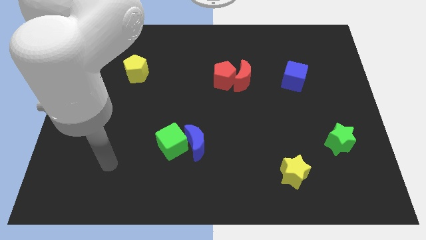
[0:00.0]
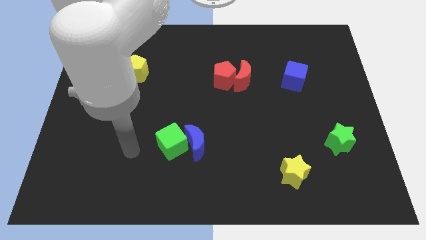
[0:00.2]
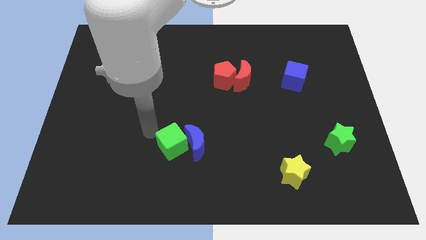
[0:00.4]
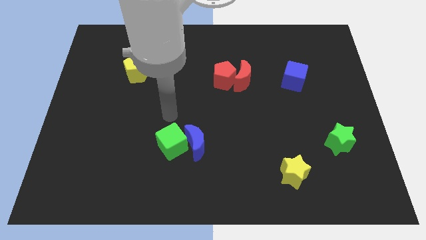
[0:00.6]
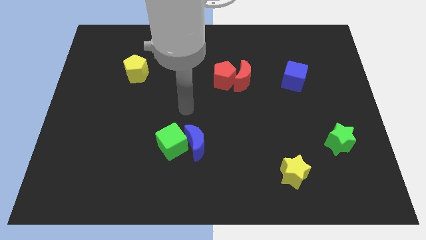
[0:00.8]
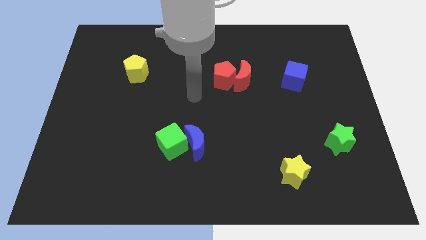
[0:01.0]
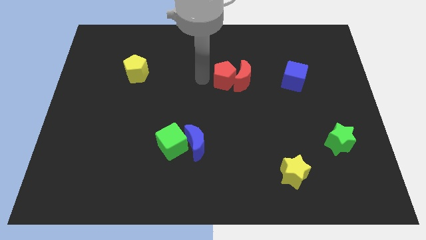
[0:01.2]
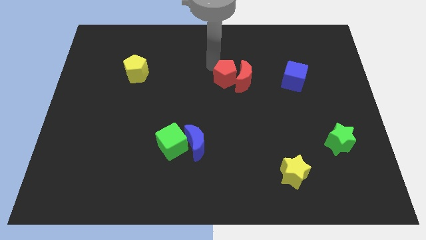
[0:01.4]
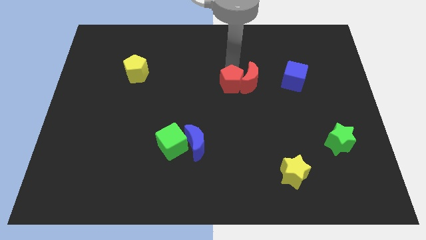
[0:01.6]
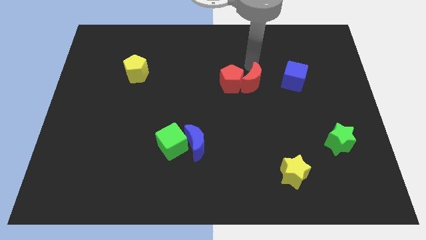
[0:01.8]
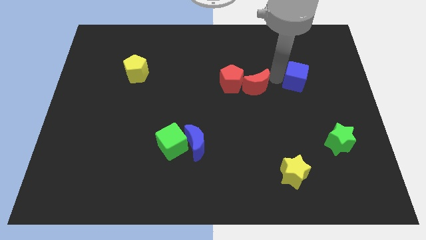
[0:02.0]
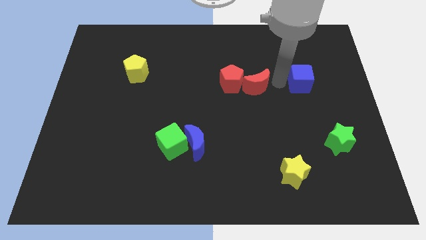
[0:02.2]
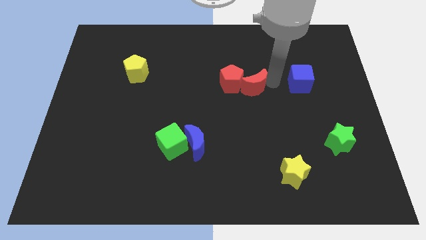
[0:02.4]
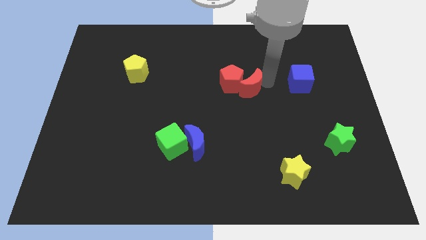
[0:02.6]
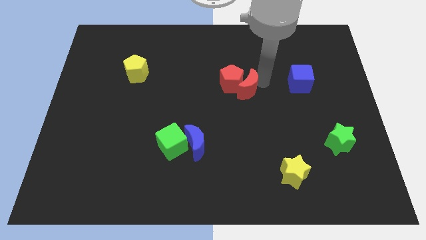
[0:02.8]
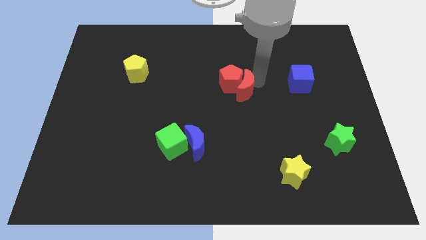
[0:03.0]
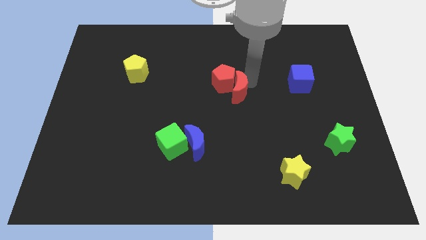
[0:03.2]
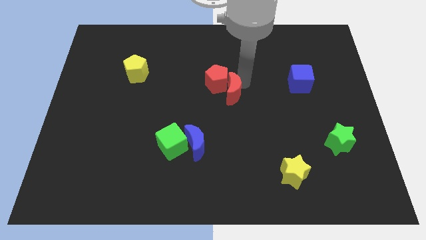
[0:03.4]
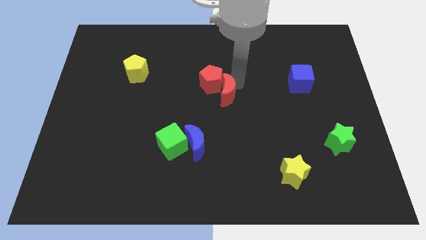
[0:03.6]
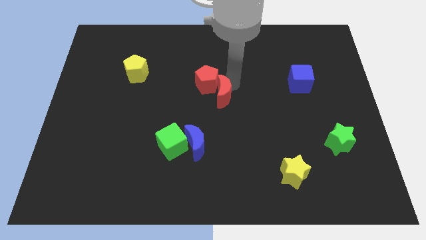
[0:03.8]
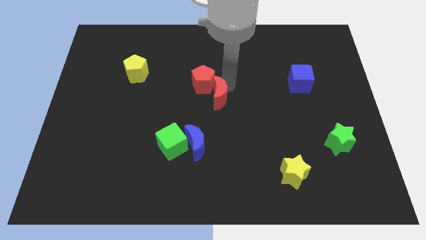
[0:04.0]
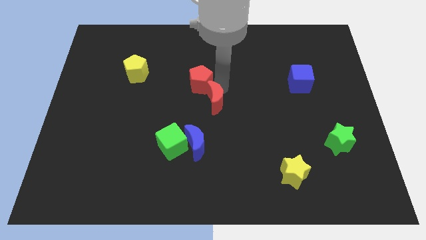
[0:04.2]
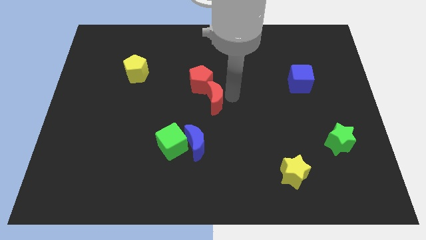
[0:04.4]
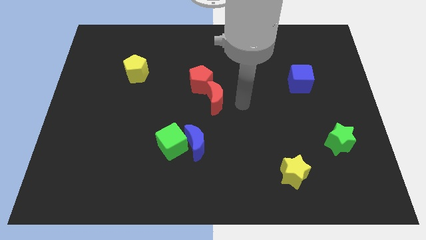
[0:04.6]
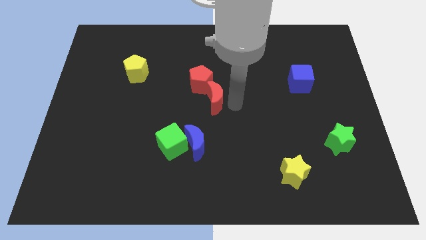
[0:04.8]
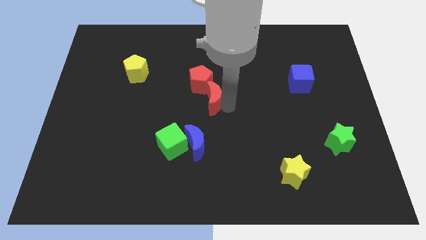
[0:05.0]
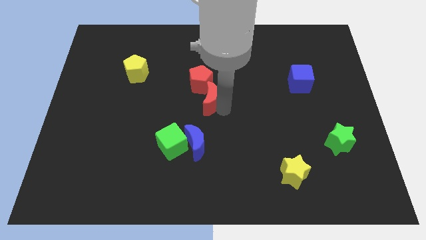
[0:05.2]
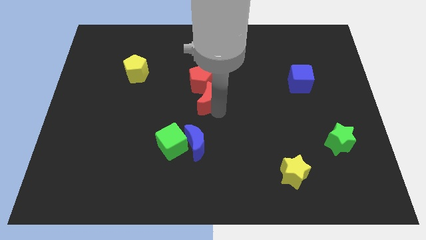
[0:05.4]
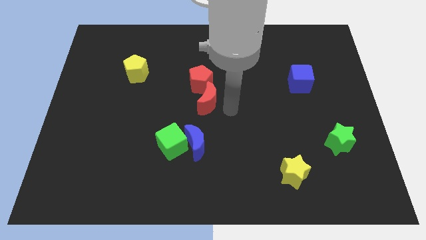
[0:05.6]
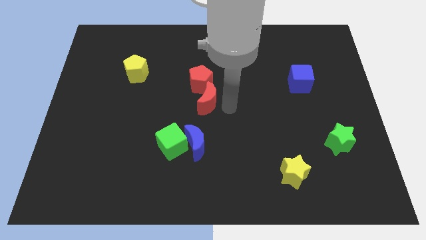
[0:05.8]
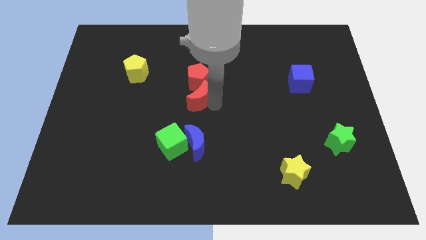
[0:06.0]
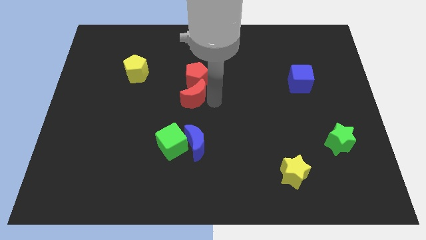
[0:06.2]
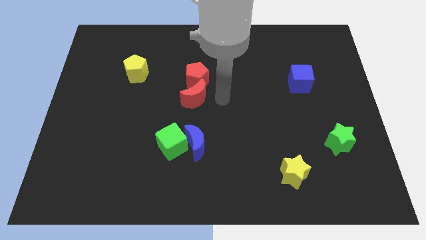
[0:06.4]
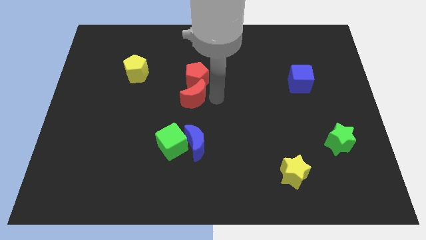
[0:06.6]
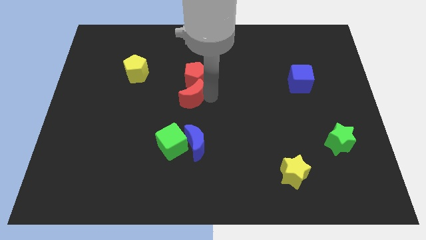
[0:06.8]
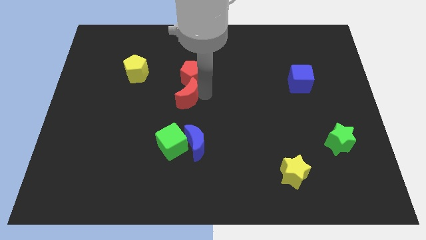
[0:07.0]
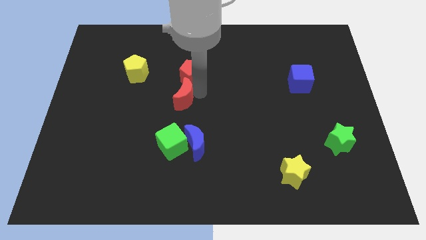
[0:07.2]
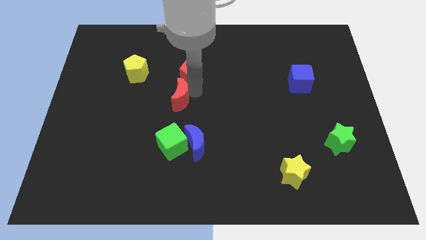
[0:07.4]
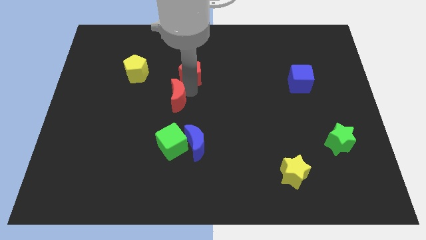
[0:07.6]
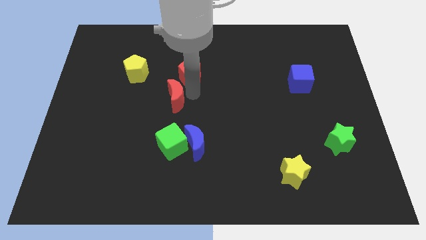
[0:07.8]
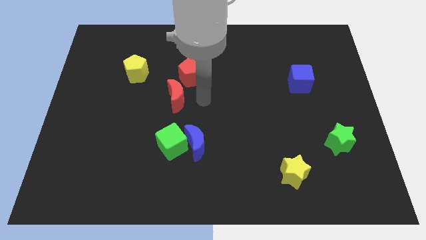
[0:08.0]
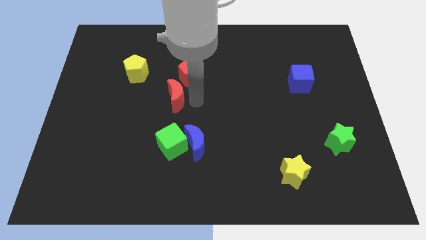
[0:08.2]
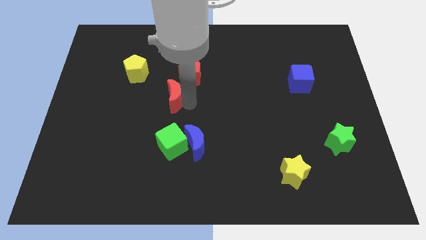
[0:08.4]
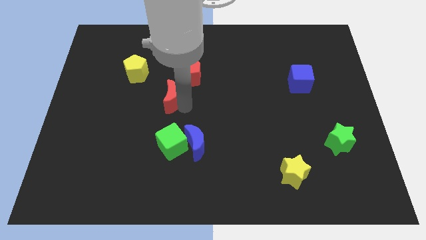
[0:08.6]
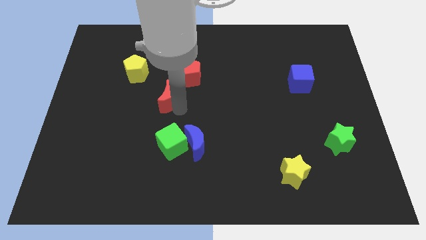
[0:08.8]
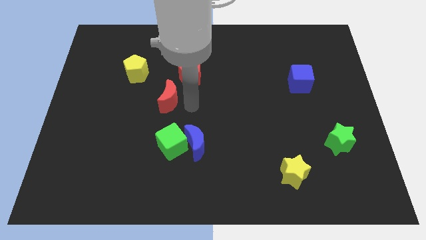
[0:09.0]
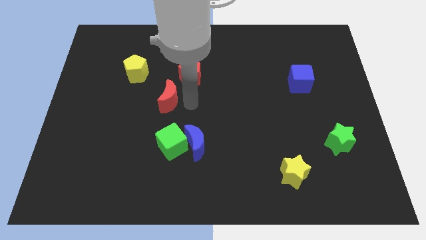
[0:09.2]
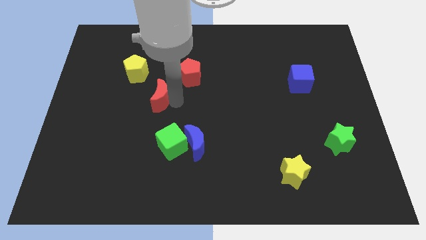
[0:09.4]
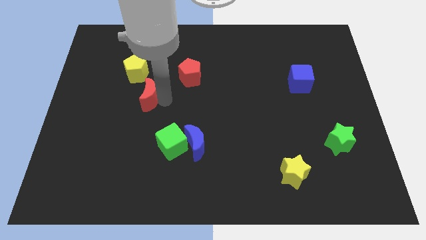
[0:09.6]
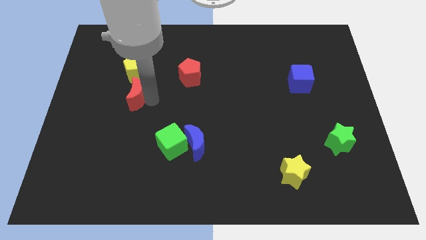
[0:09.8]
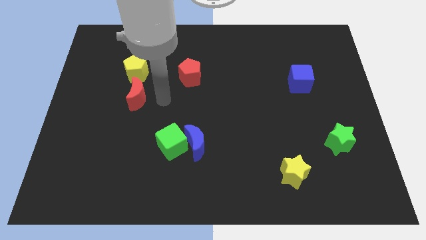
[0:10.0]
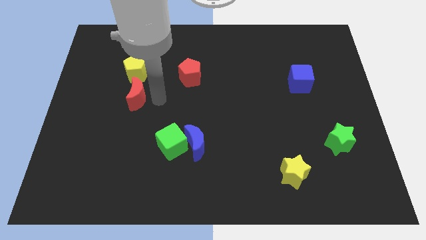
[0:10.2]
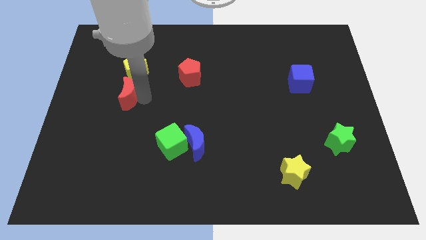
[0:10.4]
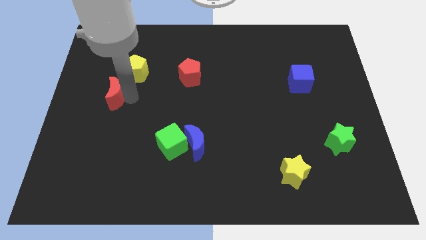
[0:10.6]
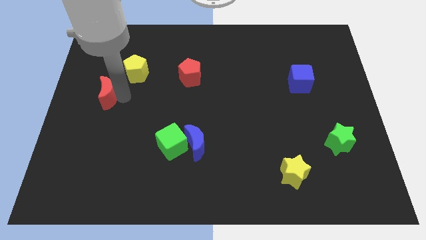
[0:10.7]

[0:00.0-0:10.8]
push the red moon to the center left
